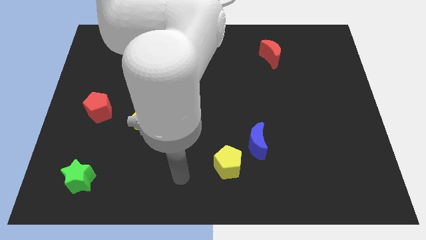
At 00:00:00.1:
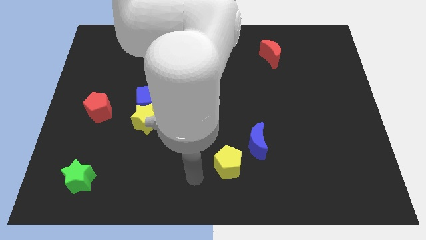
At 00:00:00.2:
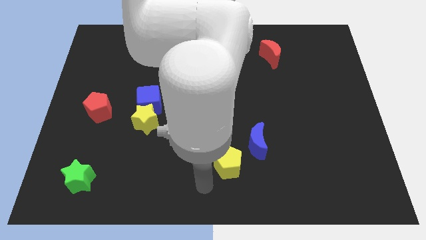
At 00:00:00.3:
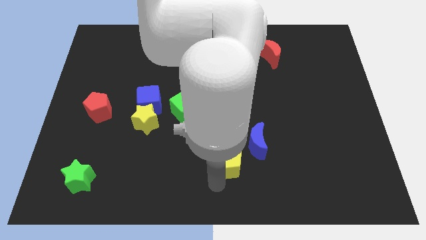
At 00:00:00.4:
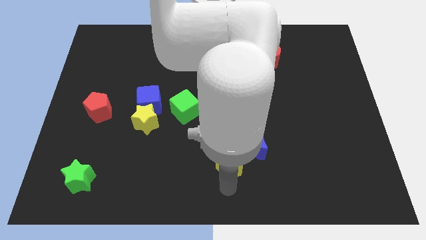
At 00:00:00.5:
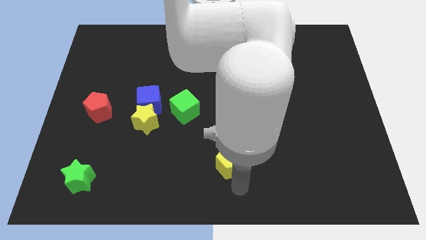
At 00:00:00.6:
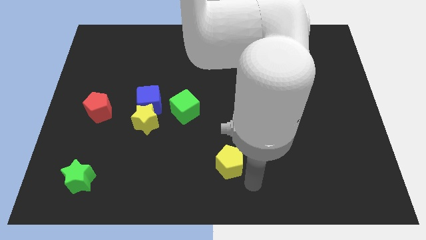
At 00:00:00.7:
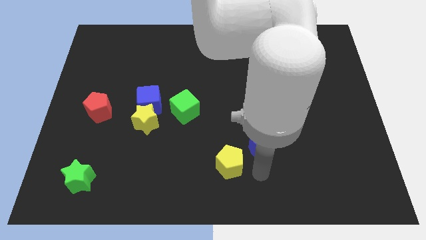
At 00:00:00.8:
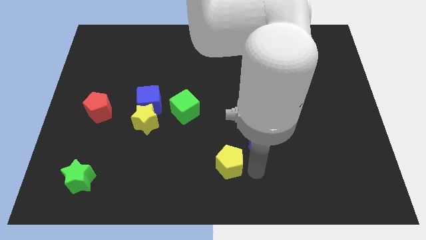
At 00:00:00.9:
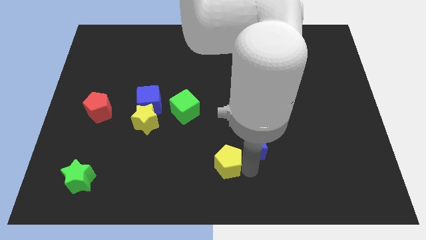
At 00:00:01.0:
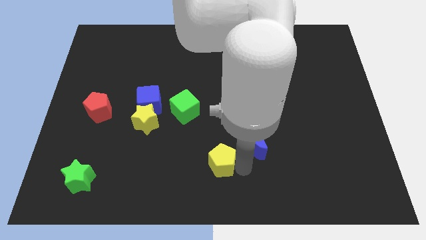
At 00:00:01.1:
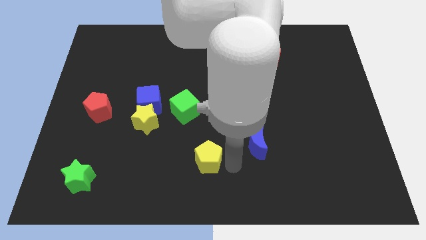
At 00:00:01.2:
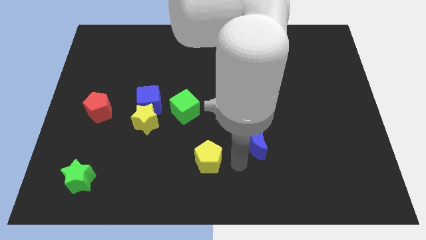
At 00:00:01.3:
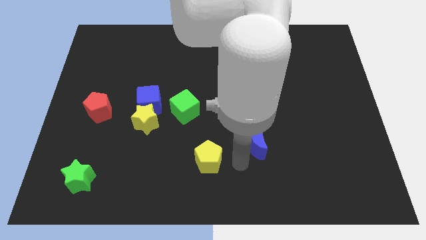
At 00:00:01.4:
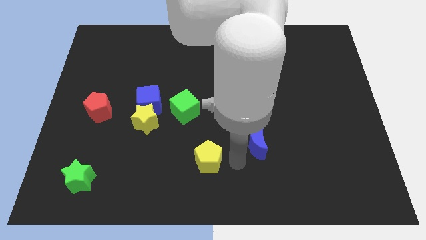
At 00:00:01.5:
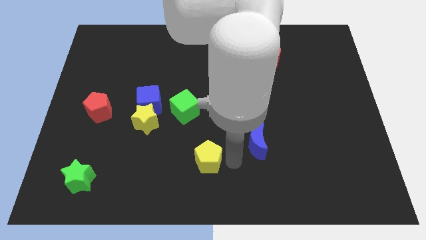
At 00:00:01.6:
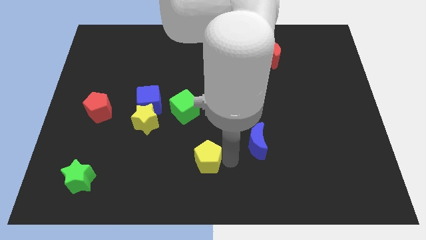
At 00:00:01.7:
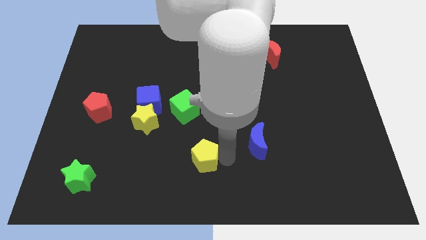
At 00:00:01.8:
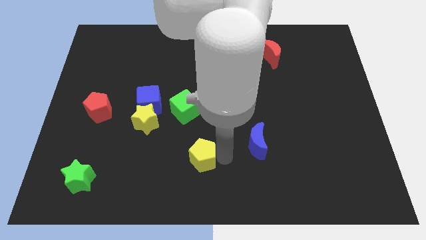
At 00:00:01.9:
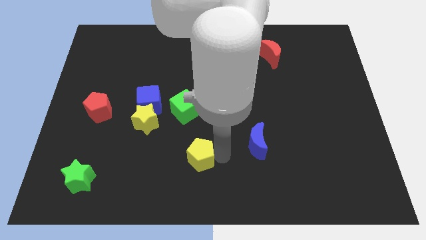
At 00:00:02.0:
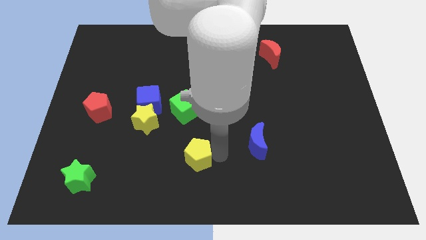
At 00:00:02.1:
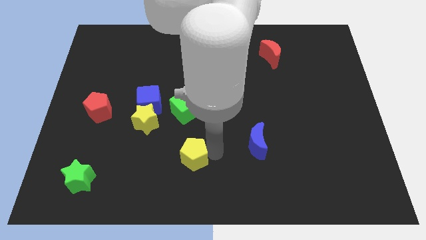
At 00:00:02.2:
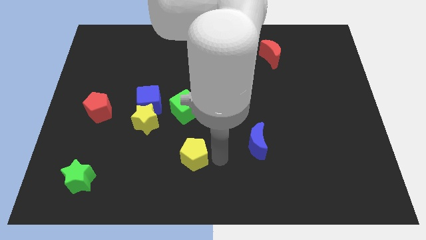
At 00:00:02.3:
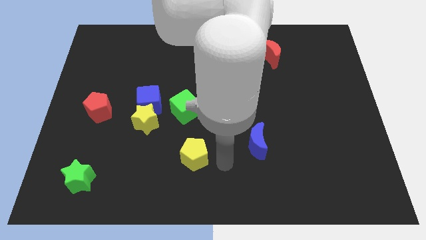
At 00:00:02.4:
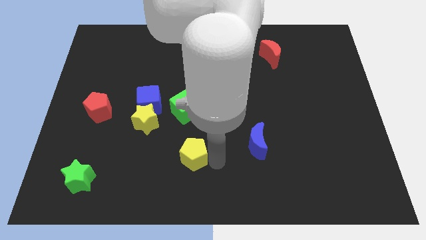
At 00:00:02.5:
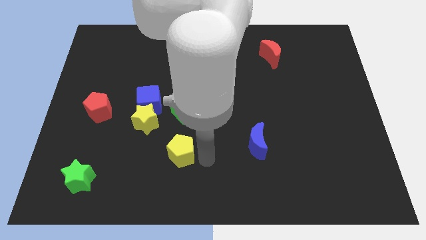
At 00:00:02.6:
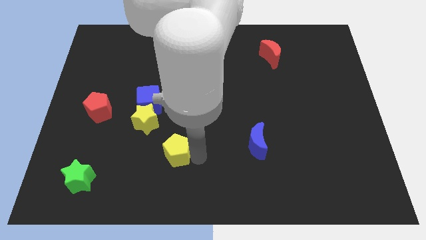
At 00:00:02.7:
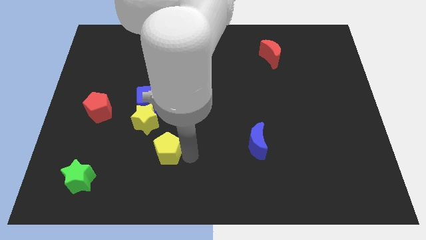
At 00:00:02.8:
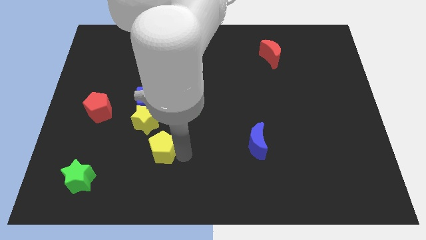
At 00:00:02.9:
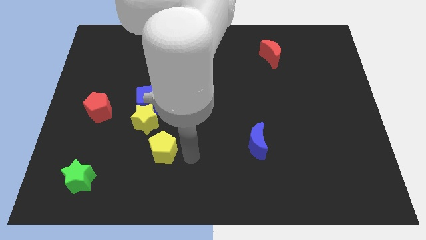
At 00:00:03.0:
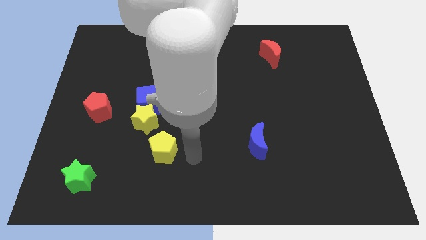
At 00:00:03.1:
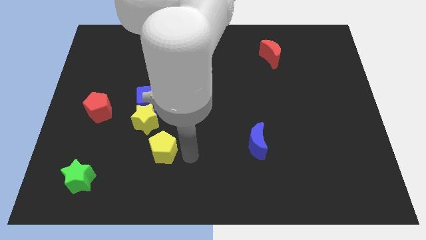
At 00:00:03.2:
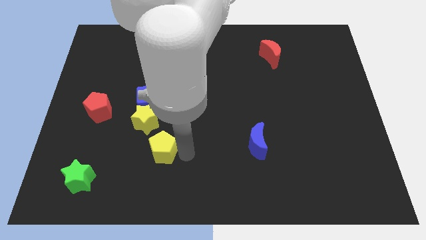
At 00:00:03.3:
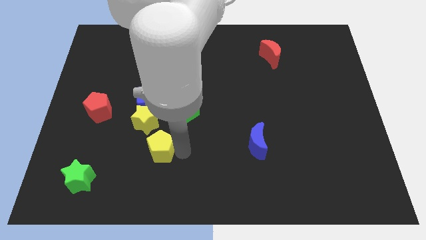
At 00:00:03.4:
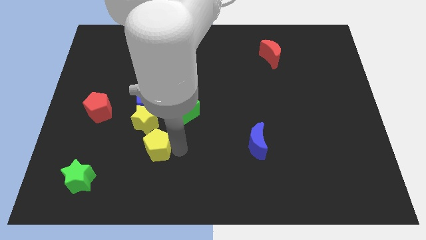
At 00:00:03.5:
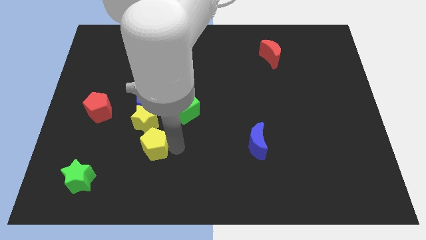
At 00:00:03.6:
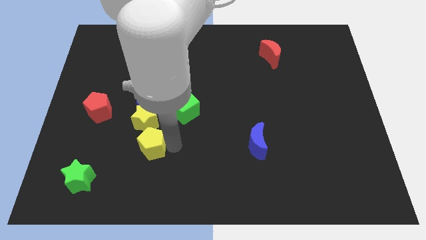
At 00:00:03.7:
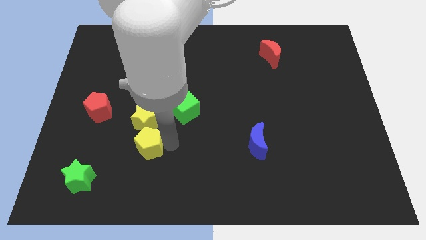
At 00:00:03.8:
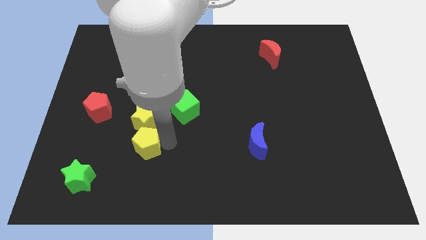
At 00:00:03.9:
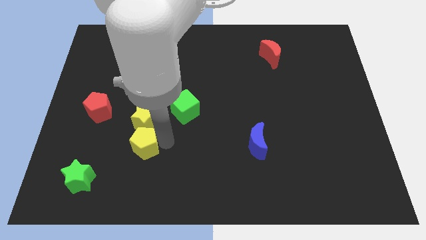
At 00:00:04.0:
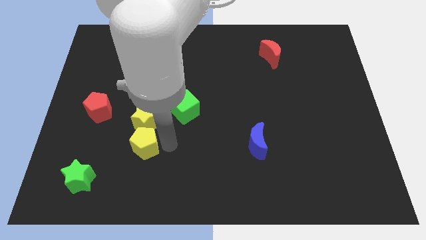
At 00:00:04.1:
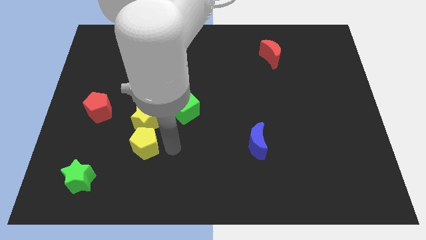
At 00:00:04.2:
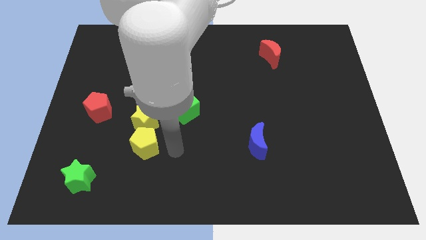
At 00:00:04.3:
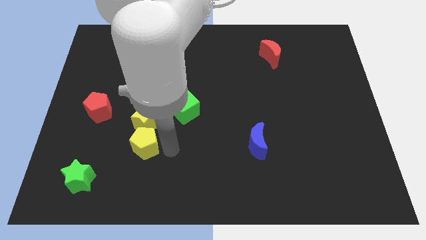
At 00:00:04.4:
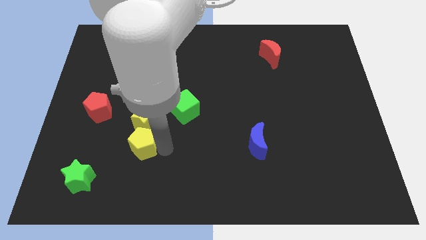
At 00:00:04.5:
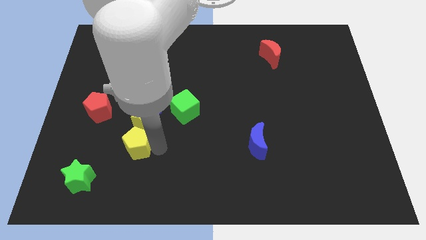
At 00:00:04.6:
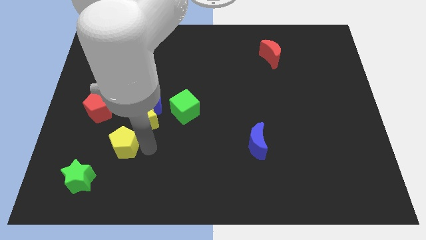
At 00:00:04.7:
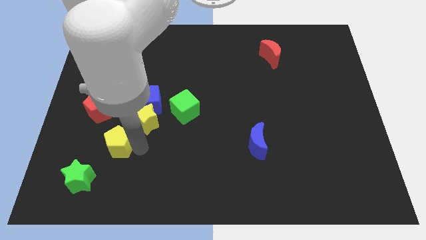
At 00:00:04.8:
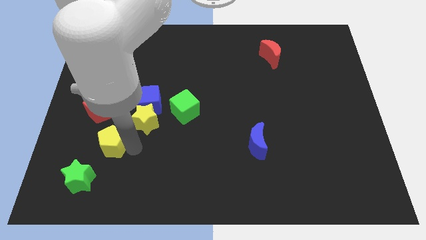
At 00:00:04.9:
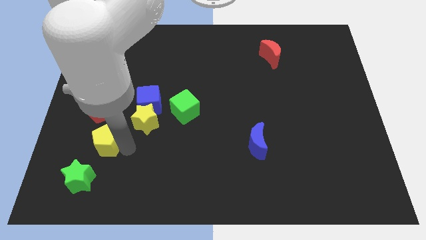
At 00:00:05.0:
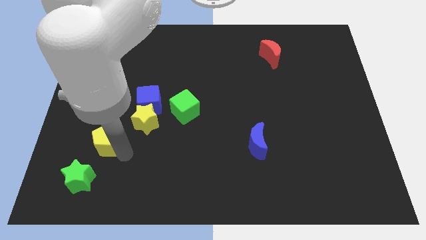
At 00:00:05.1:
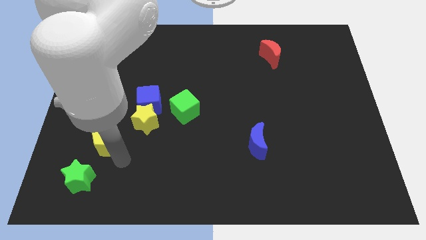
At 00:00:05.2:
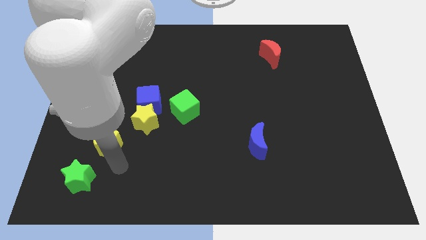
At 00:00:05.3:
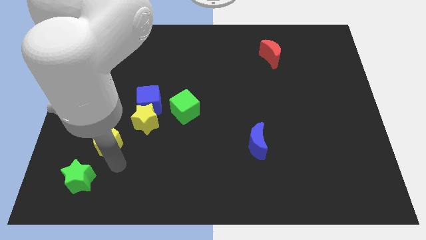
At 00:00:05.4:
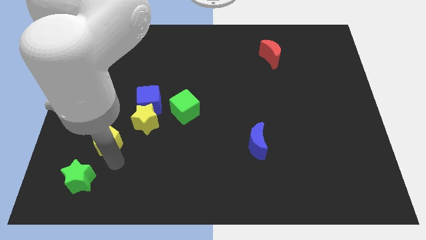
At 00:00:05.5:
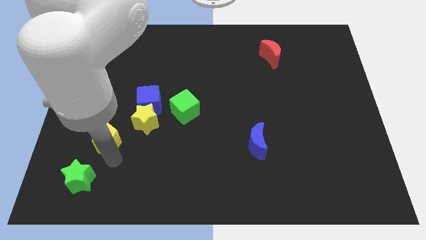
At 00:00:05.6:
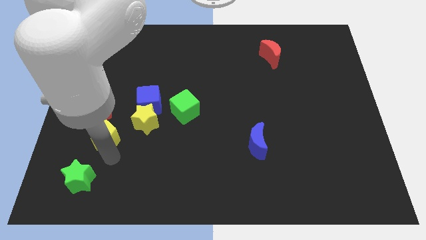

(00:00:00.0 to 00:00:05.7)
put the yellow pentagon to the left of the yellow star

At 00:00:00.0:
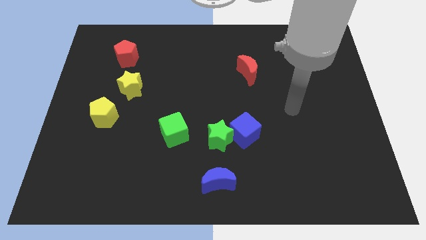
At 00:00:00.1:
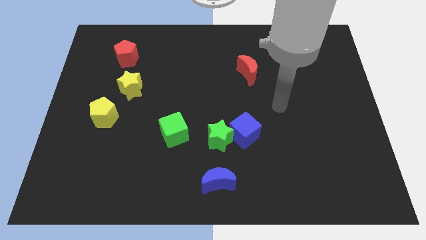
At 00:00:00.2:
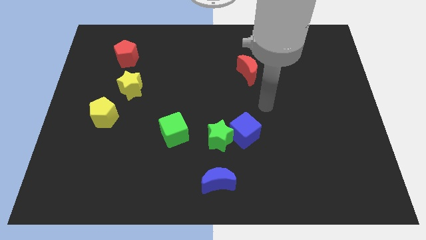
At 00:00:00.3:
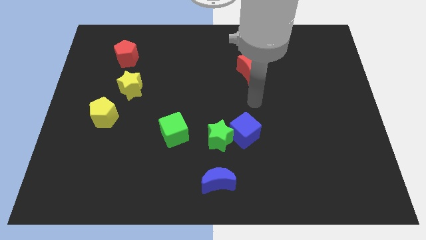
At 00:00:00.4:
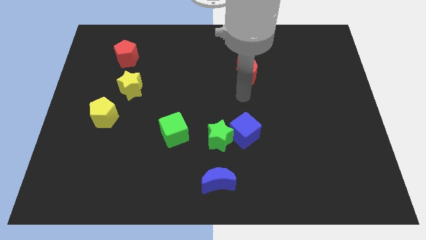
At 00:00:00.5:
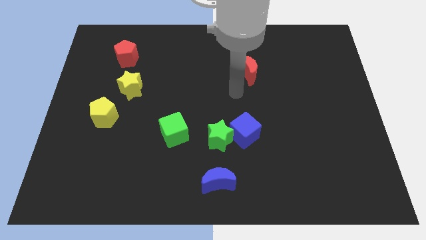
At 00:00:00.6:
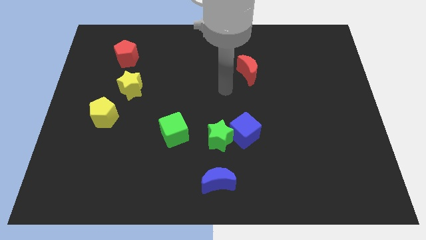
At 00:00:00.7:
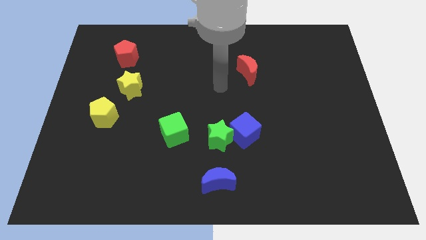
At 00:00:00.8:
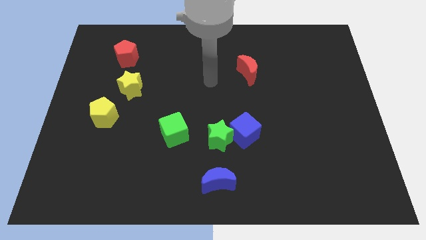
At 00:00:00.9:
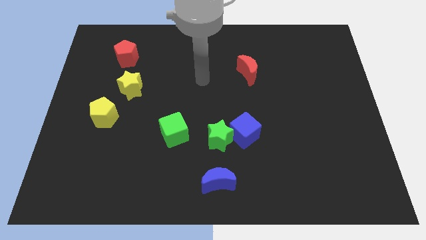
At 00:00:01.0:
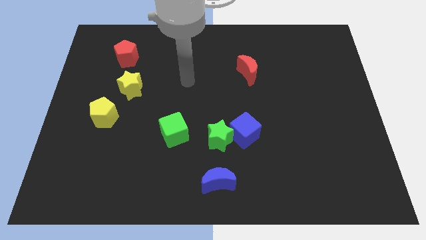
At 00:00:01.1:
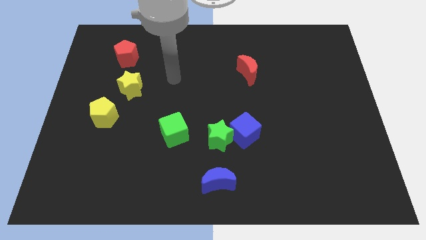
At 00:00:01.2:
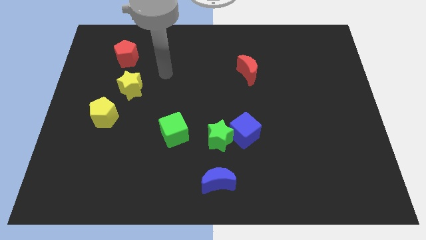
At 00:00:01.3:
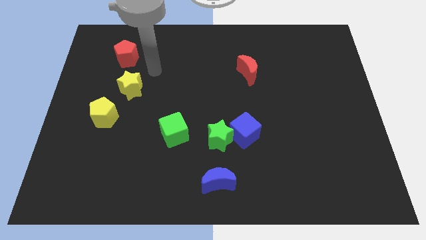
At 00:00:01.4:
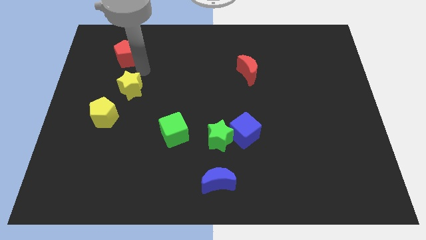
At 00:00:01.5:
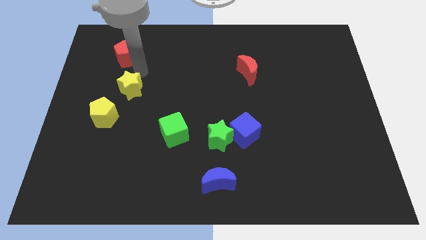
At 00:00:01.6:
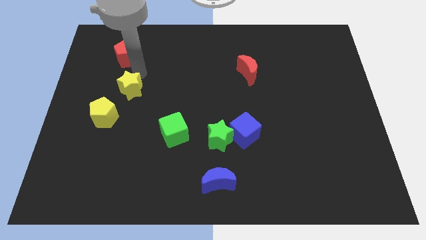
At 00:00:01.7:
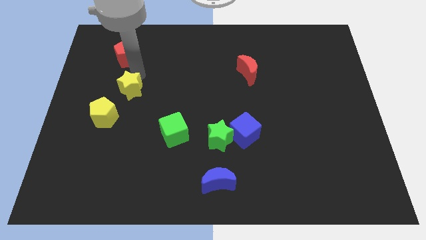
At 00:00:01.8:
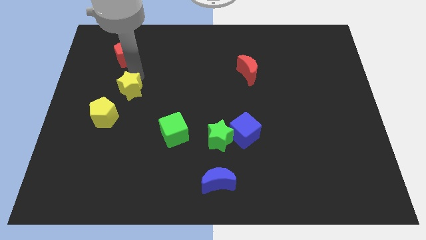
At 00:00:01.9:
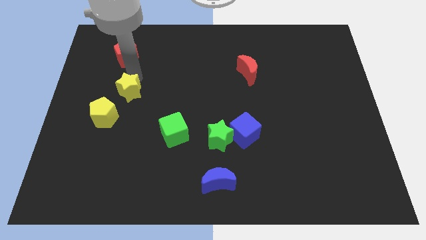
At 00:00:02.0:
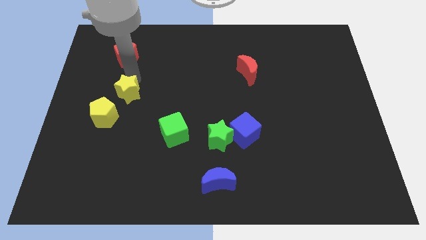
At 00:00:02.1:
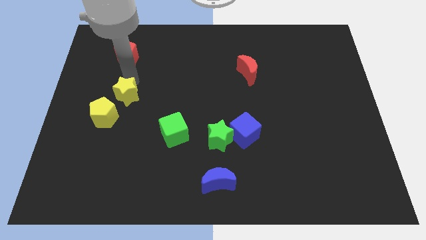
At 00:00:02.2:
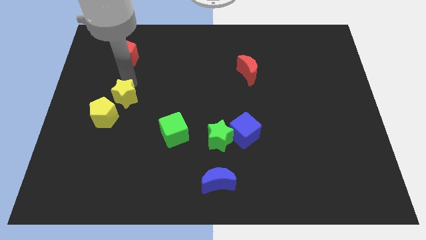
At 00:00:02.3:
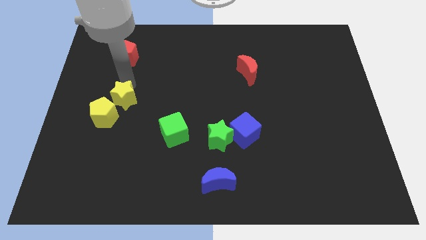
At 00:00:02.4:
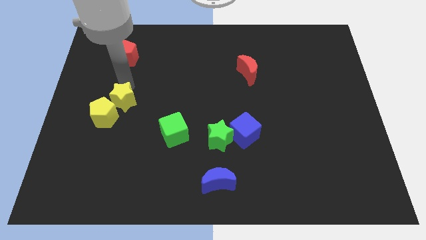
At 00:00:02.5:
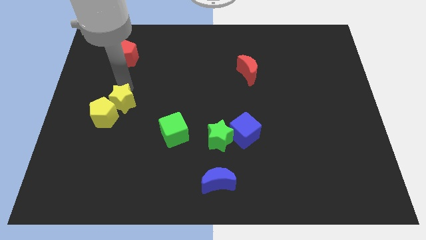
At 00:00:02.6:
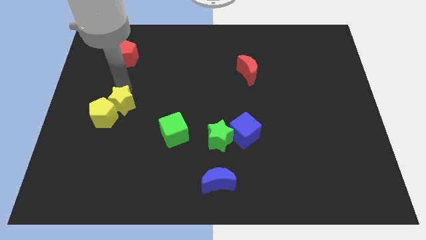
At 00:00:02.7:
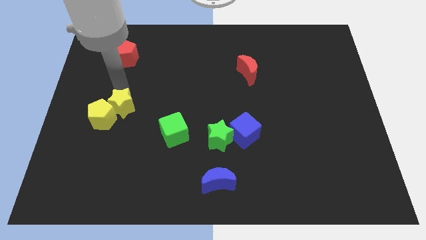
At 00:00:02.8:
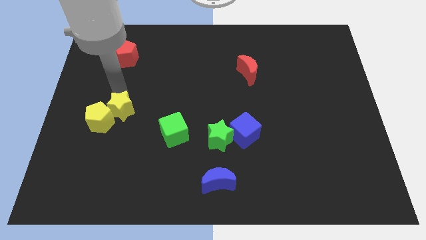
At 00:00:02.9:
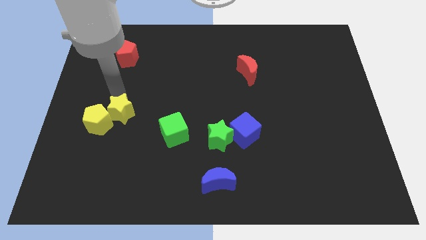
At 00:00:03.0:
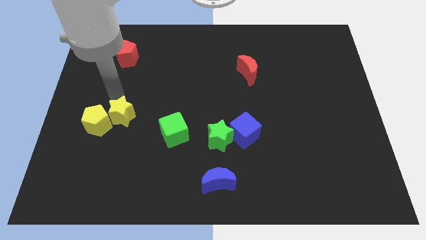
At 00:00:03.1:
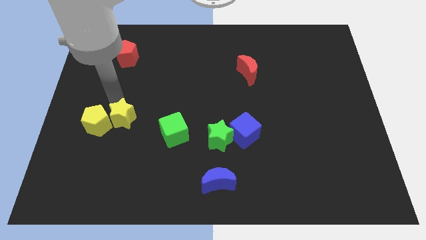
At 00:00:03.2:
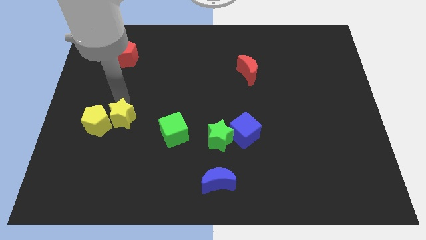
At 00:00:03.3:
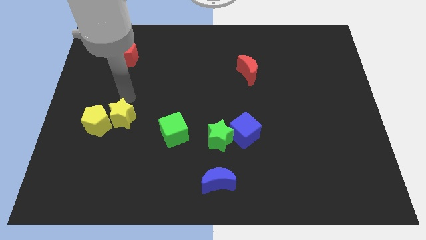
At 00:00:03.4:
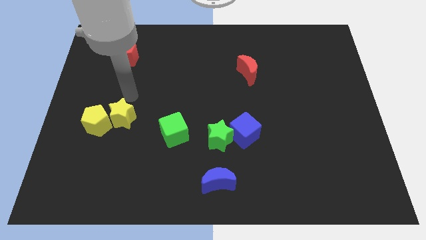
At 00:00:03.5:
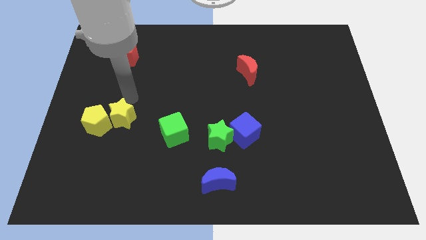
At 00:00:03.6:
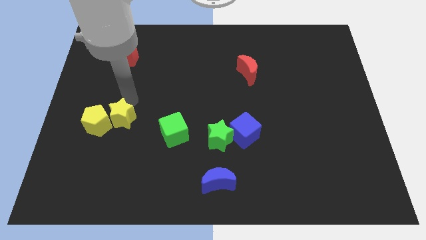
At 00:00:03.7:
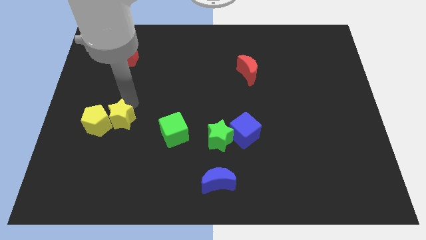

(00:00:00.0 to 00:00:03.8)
push the yellow star to the bottom right of the yellow pentagon
